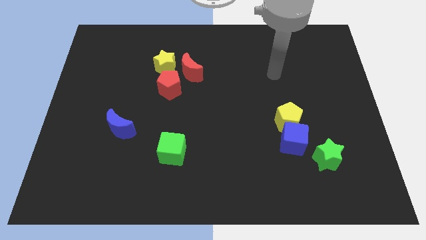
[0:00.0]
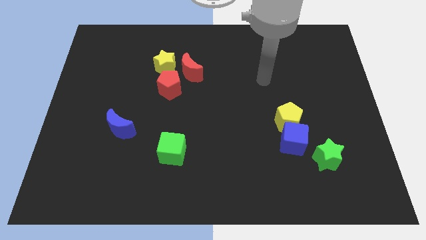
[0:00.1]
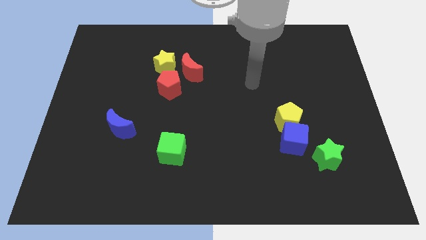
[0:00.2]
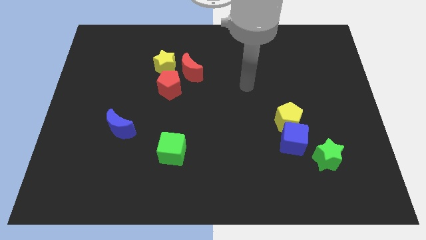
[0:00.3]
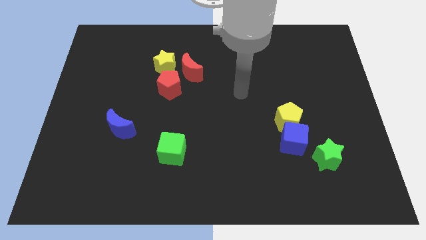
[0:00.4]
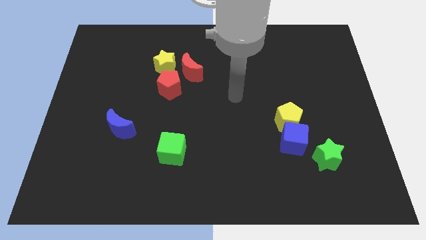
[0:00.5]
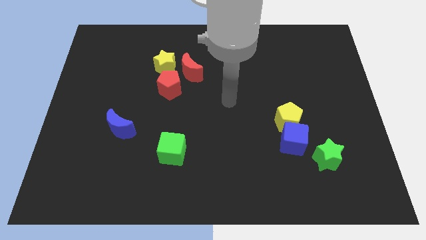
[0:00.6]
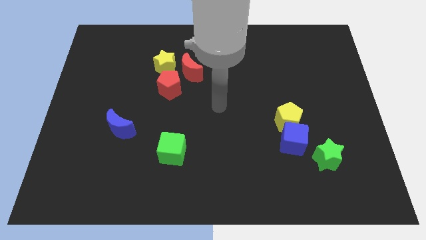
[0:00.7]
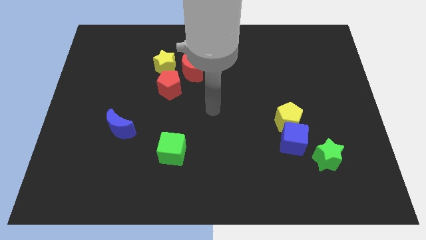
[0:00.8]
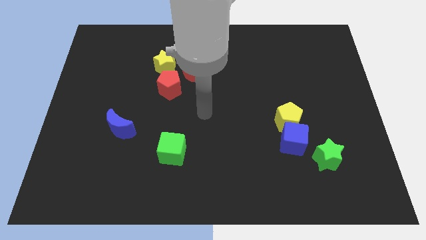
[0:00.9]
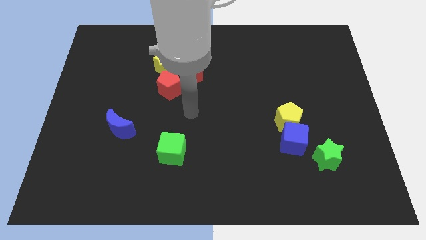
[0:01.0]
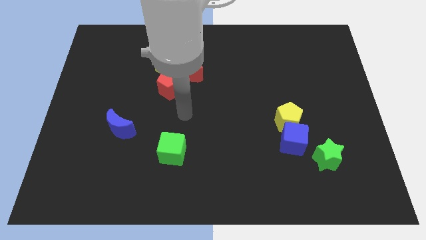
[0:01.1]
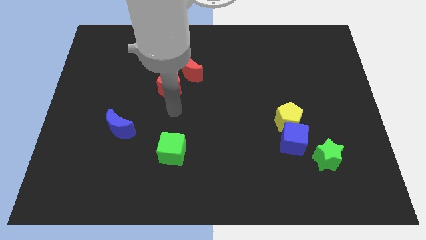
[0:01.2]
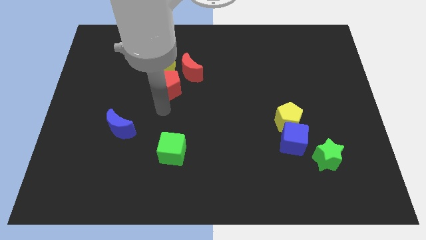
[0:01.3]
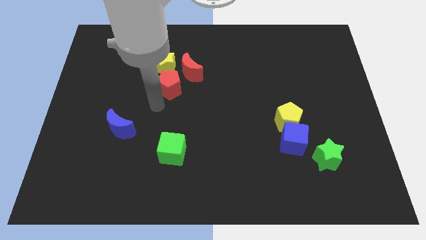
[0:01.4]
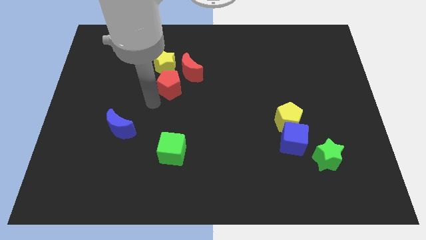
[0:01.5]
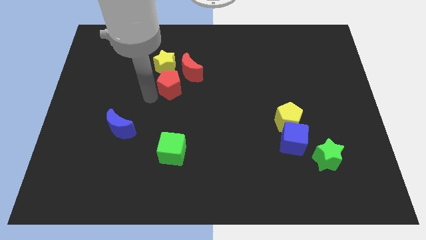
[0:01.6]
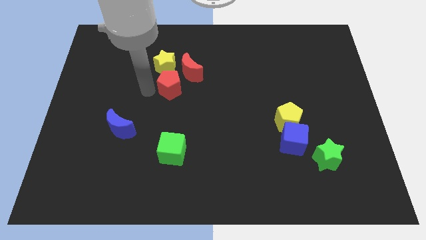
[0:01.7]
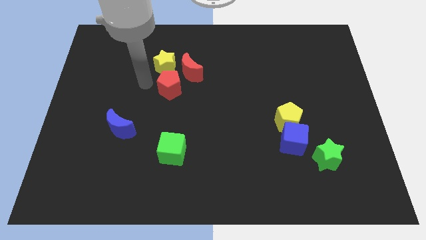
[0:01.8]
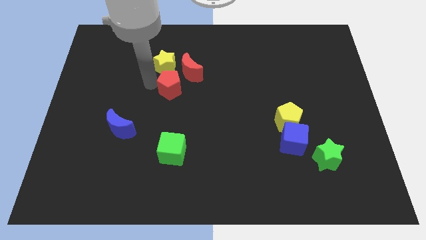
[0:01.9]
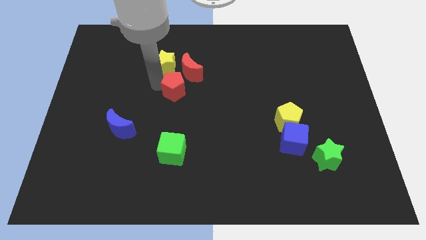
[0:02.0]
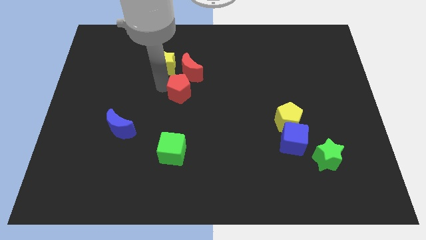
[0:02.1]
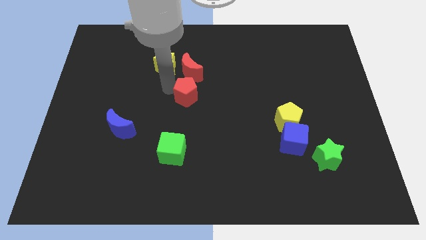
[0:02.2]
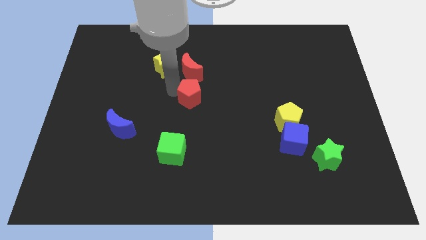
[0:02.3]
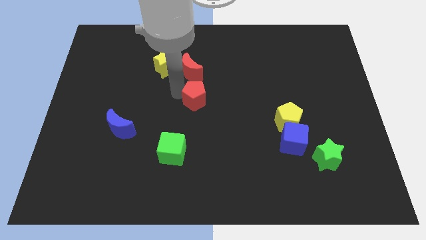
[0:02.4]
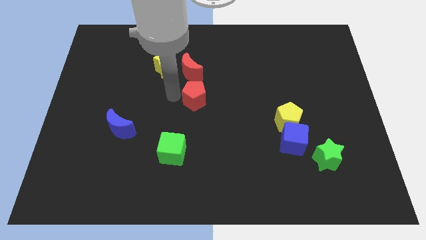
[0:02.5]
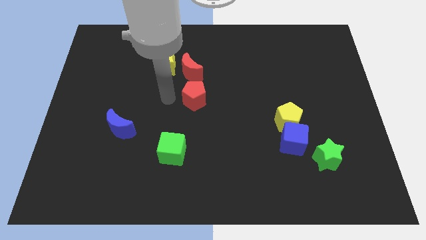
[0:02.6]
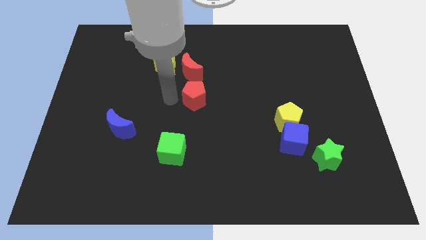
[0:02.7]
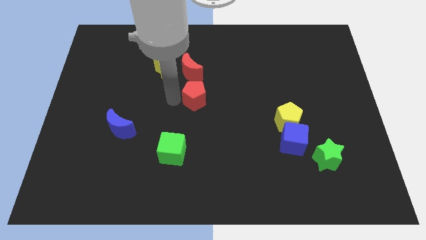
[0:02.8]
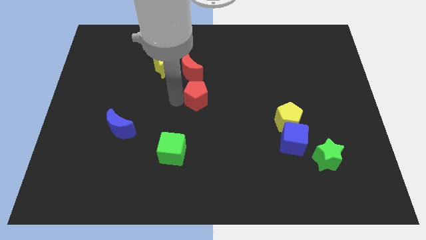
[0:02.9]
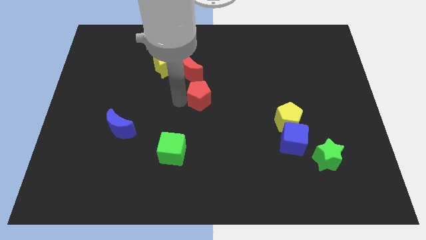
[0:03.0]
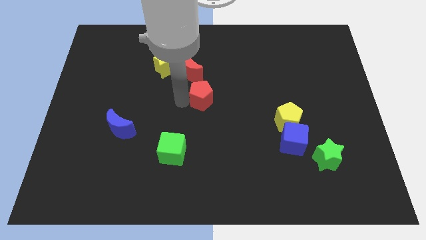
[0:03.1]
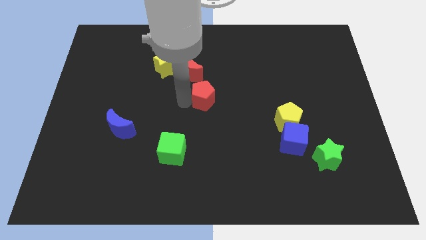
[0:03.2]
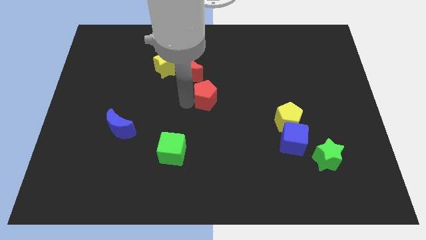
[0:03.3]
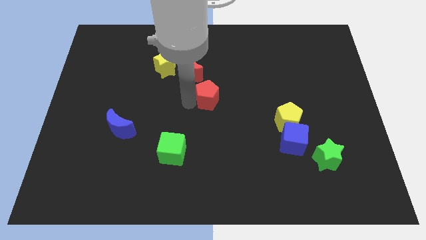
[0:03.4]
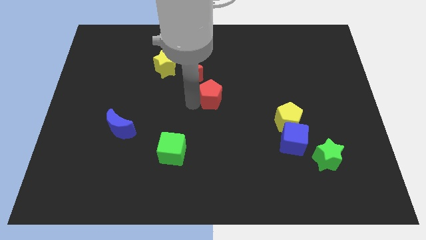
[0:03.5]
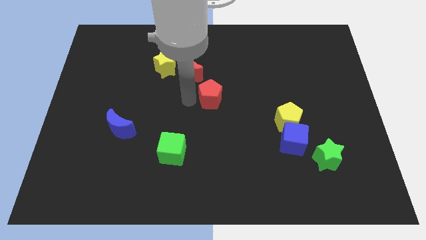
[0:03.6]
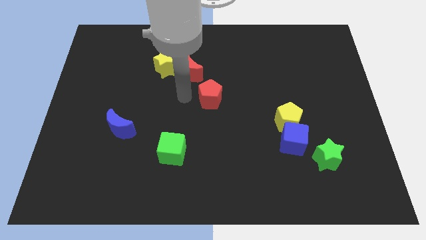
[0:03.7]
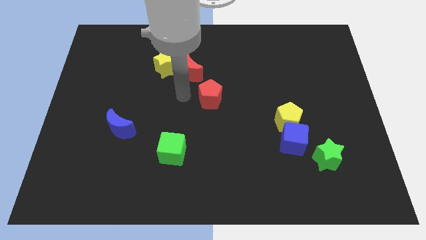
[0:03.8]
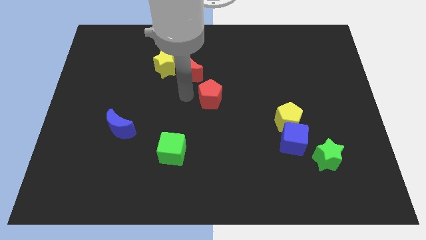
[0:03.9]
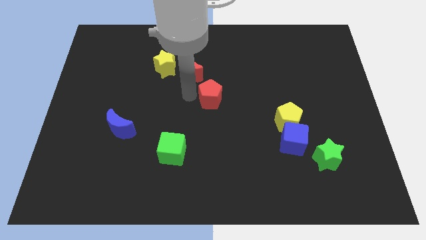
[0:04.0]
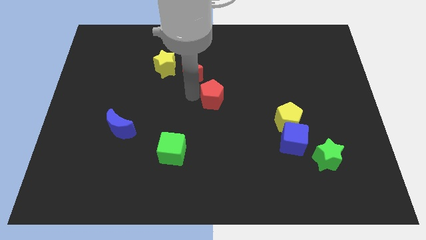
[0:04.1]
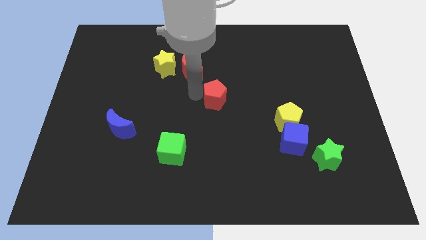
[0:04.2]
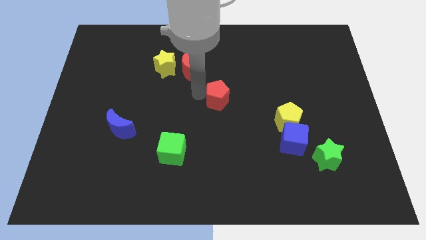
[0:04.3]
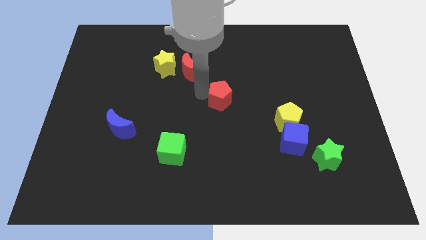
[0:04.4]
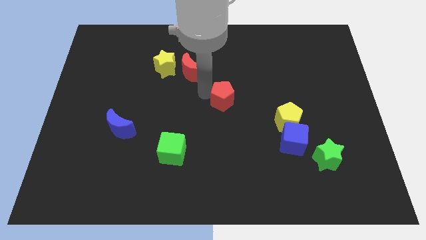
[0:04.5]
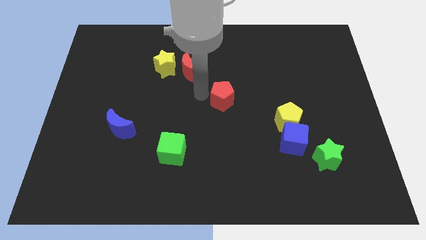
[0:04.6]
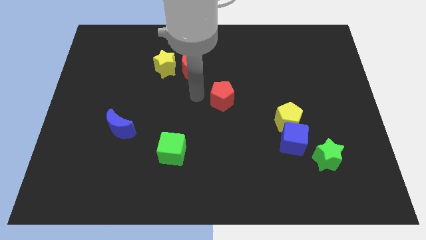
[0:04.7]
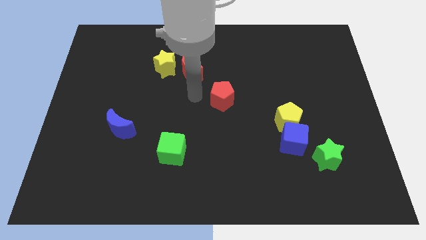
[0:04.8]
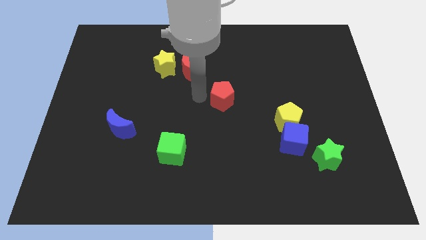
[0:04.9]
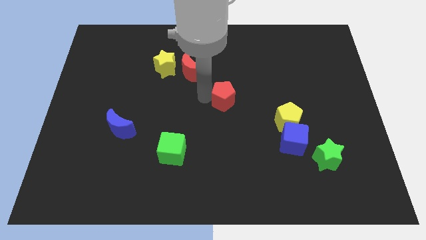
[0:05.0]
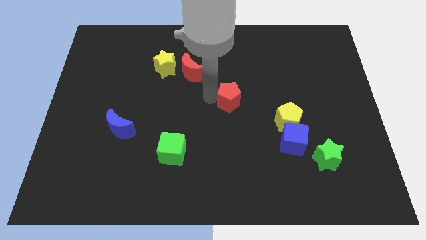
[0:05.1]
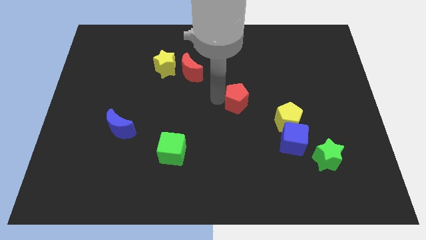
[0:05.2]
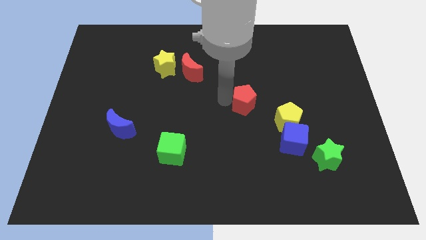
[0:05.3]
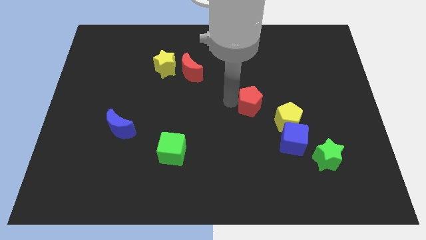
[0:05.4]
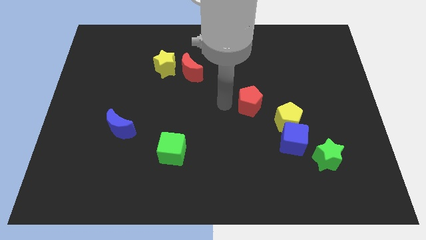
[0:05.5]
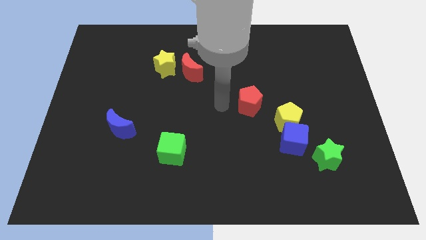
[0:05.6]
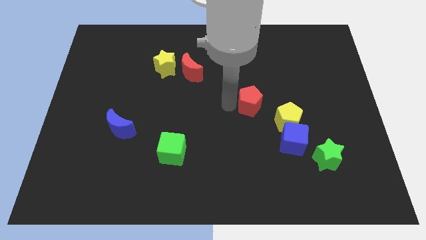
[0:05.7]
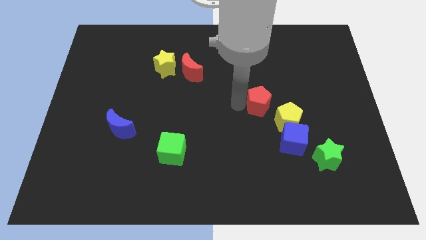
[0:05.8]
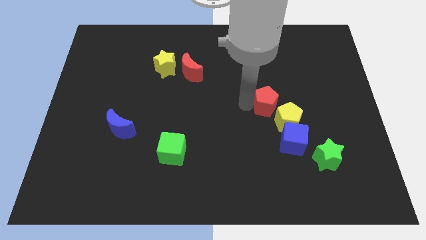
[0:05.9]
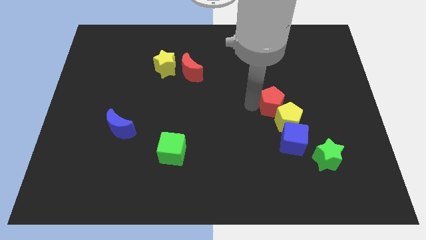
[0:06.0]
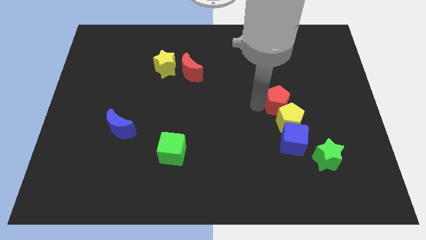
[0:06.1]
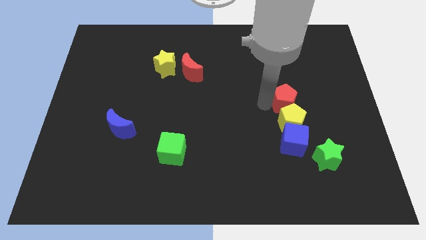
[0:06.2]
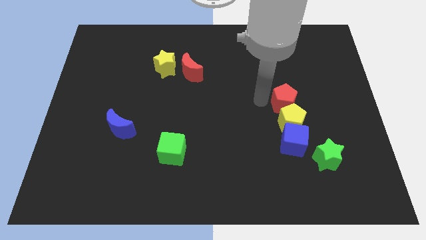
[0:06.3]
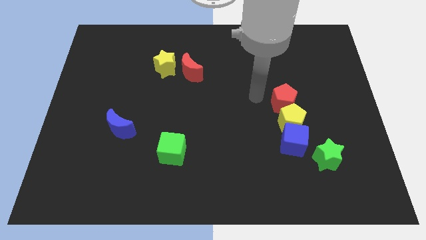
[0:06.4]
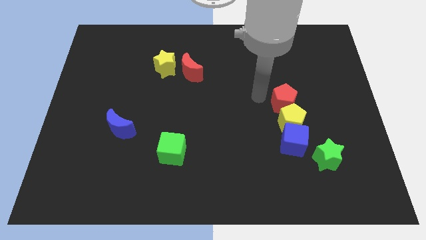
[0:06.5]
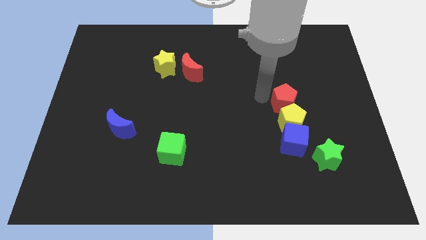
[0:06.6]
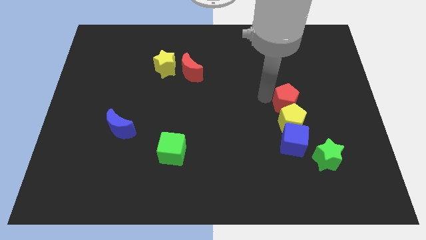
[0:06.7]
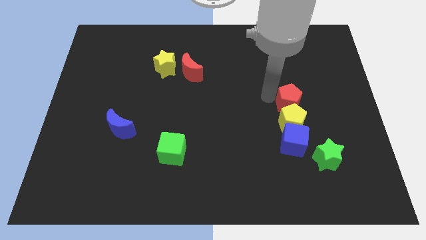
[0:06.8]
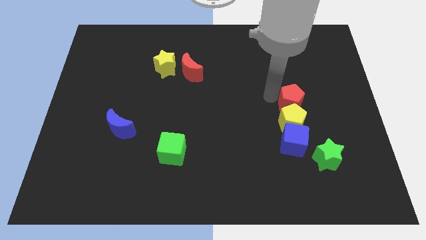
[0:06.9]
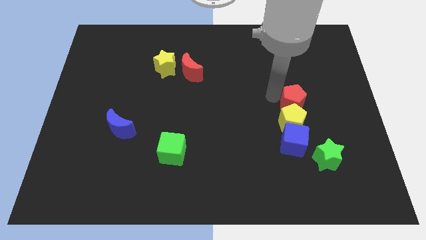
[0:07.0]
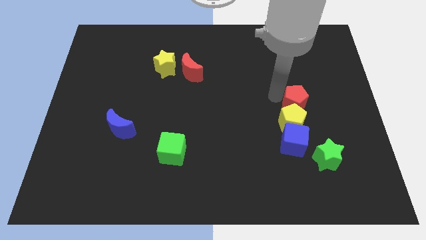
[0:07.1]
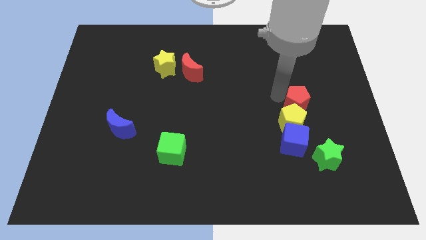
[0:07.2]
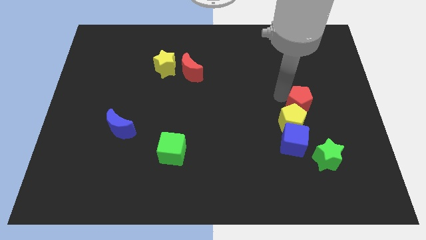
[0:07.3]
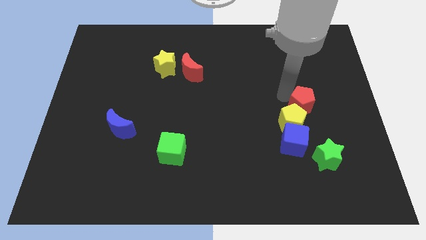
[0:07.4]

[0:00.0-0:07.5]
slide the red pentagon to the top of the green star

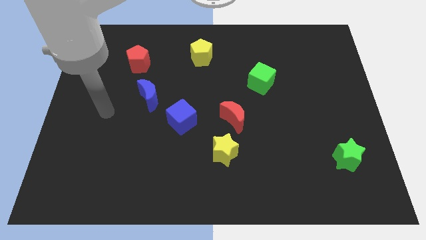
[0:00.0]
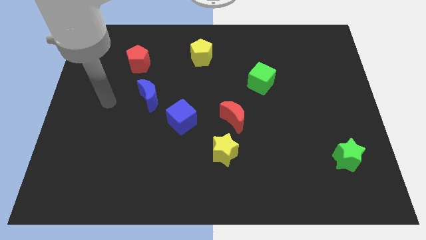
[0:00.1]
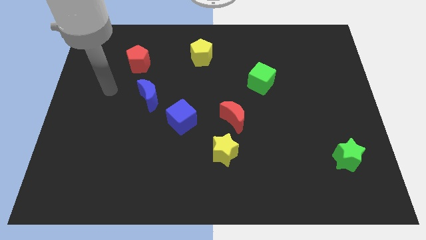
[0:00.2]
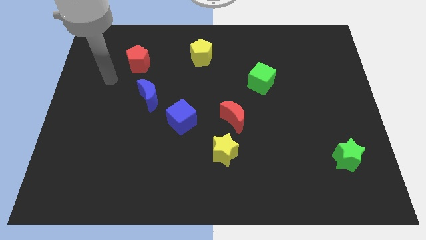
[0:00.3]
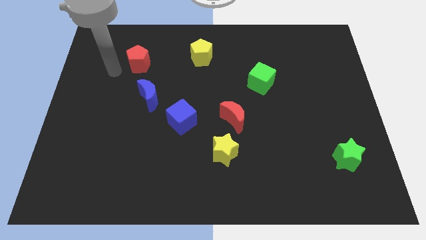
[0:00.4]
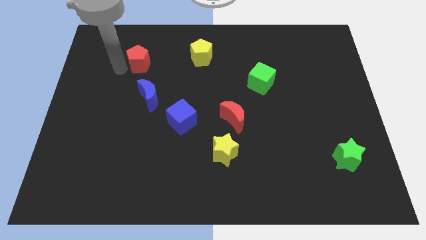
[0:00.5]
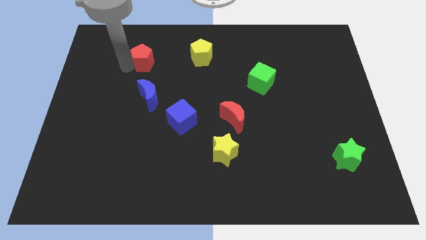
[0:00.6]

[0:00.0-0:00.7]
put the red pentagon to the left of the yellow pentagon
